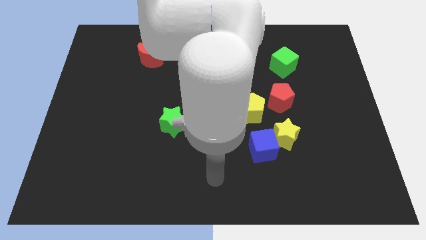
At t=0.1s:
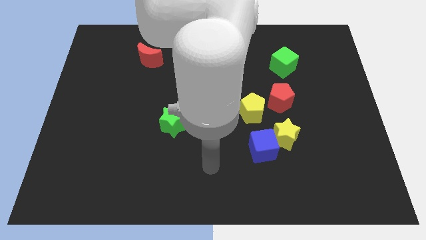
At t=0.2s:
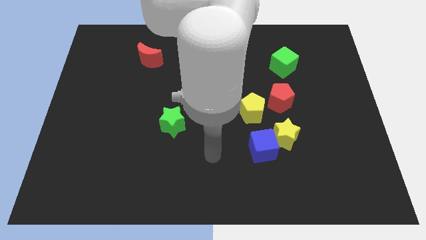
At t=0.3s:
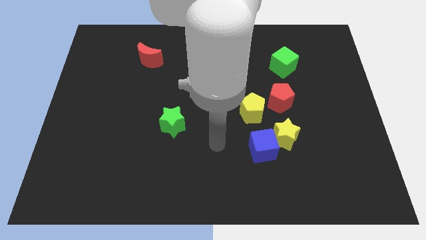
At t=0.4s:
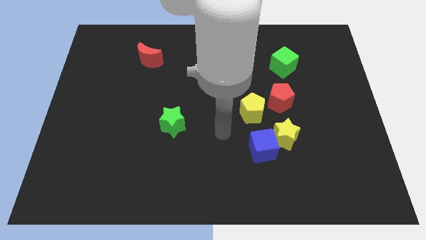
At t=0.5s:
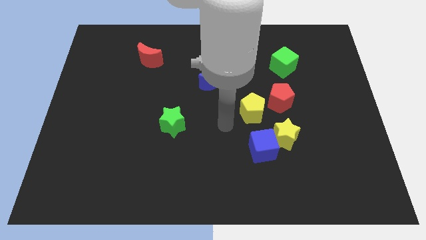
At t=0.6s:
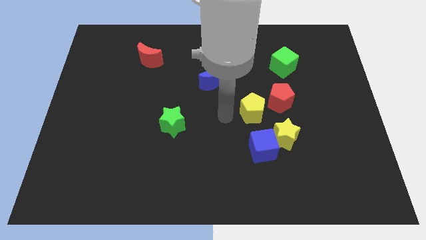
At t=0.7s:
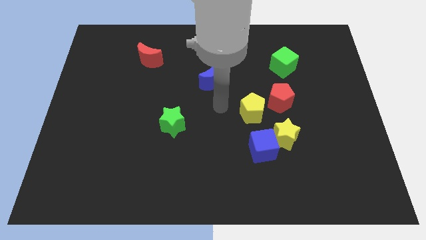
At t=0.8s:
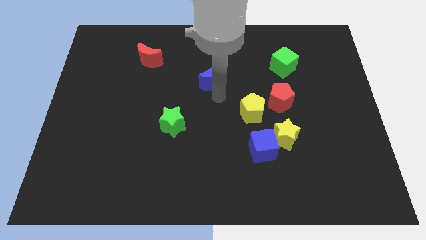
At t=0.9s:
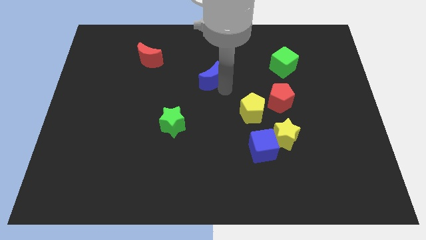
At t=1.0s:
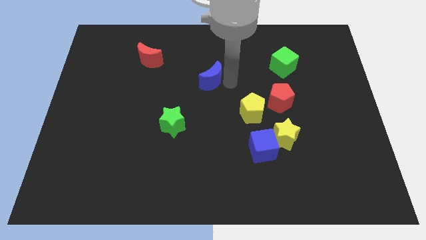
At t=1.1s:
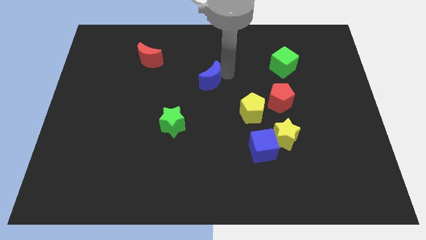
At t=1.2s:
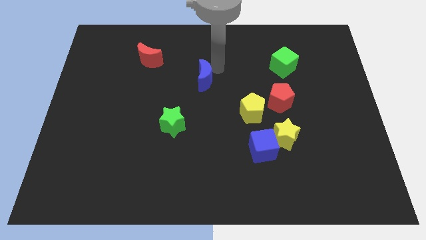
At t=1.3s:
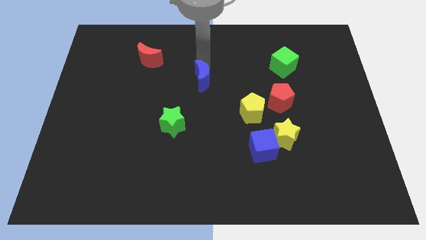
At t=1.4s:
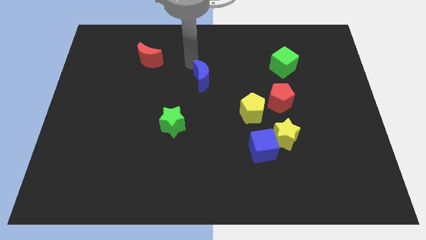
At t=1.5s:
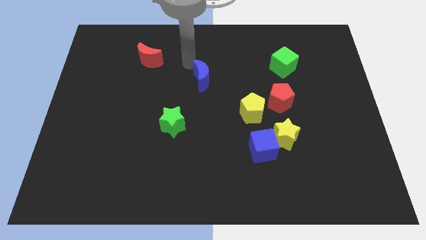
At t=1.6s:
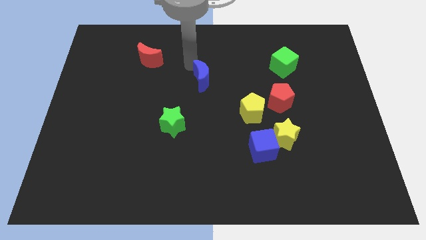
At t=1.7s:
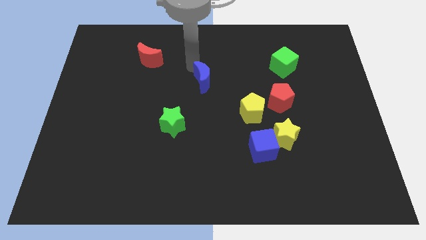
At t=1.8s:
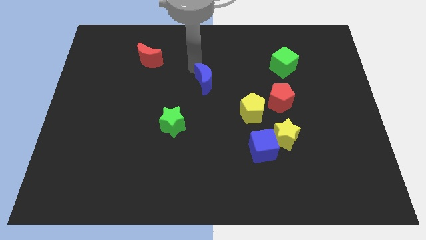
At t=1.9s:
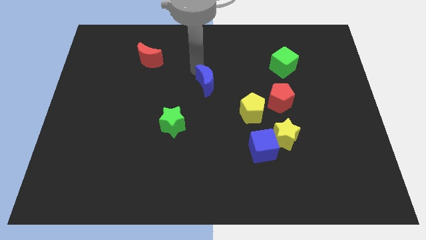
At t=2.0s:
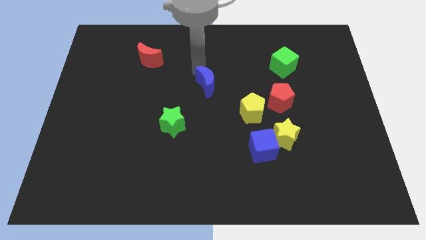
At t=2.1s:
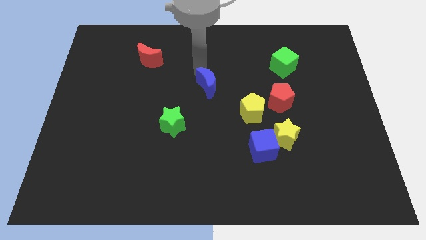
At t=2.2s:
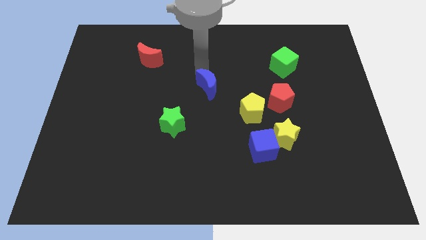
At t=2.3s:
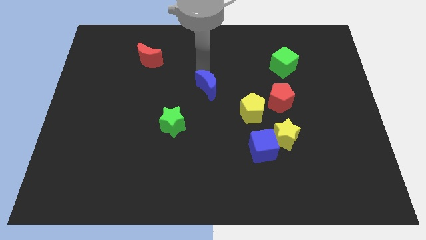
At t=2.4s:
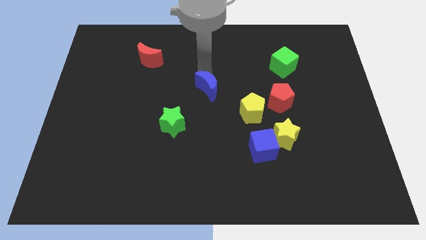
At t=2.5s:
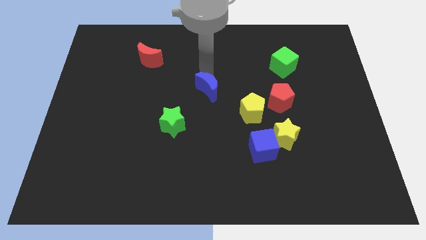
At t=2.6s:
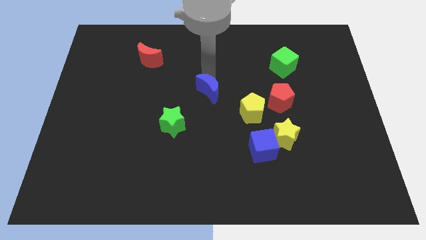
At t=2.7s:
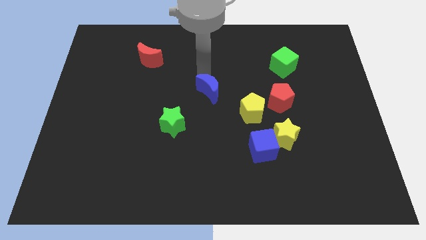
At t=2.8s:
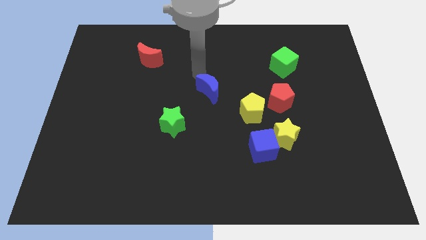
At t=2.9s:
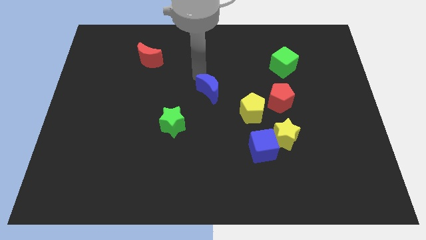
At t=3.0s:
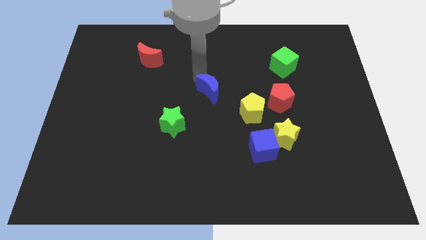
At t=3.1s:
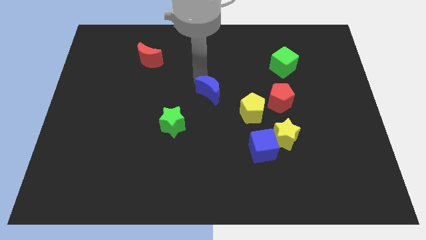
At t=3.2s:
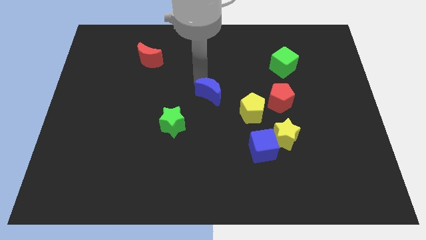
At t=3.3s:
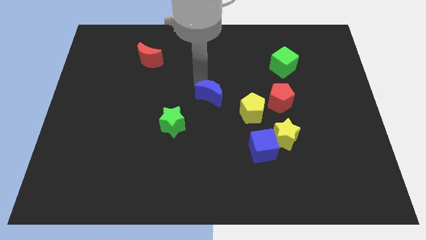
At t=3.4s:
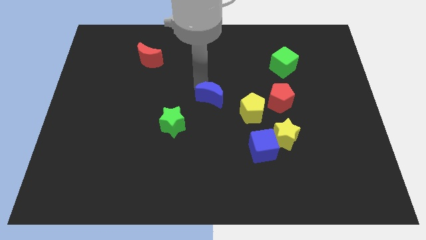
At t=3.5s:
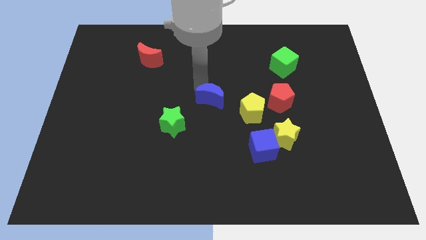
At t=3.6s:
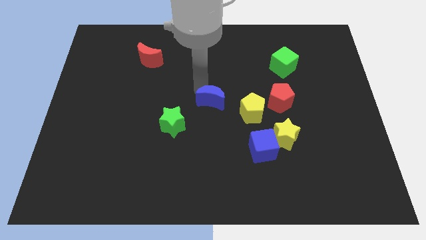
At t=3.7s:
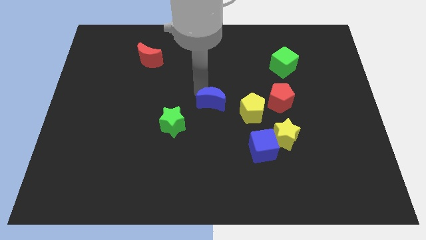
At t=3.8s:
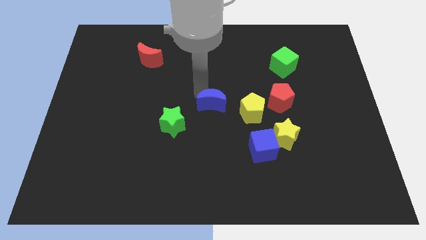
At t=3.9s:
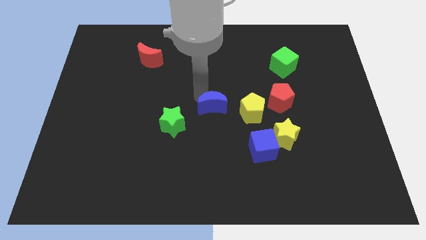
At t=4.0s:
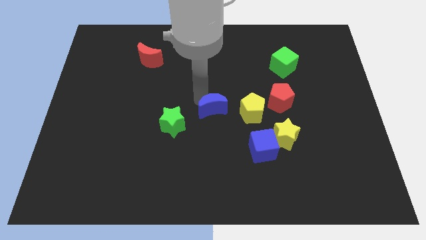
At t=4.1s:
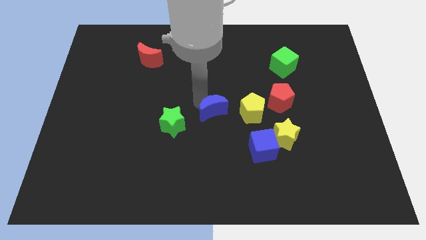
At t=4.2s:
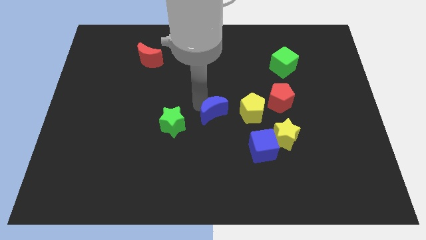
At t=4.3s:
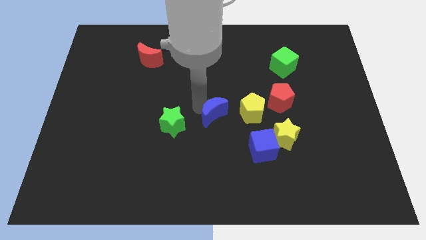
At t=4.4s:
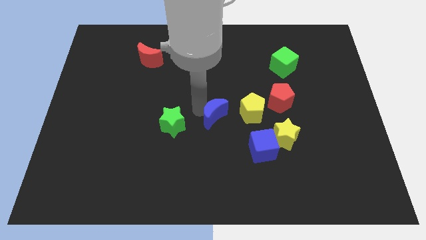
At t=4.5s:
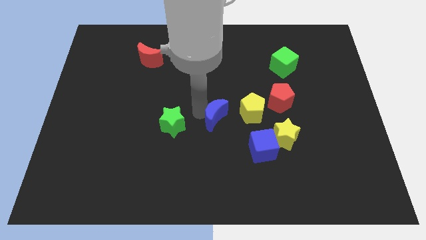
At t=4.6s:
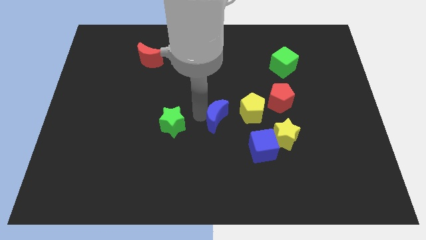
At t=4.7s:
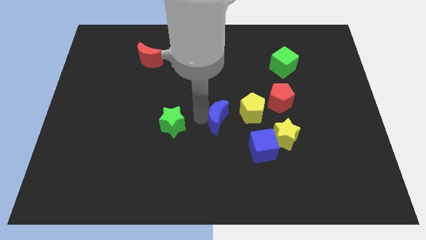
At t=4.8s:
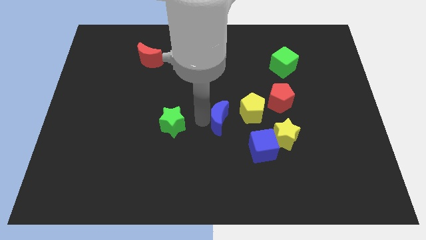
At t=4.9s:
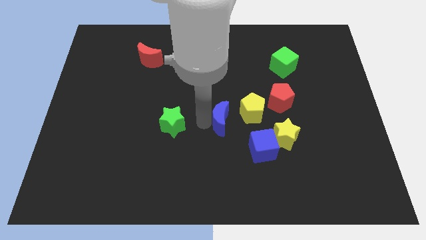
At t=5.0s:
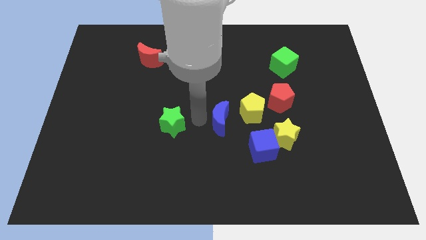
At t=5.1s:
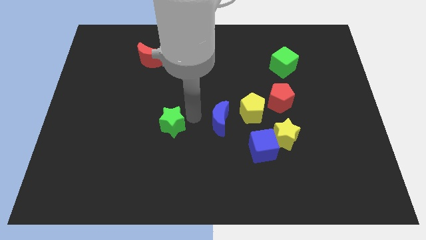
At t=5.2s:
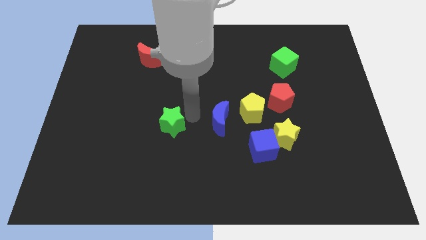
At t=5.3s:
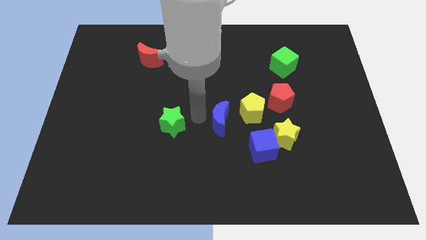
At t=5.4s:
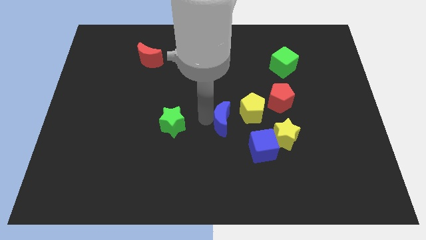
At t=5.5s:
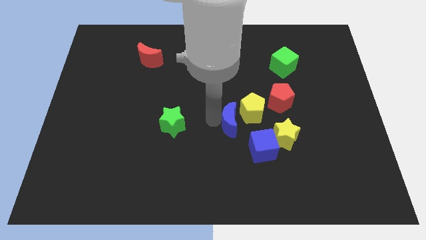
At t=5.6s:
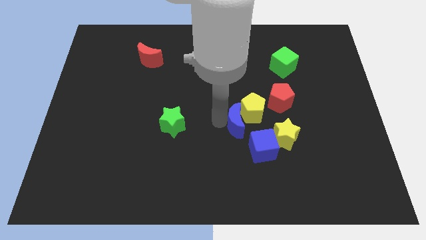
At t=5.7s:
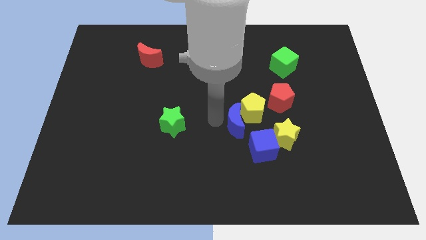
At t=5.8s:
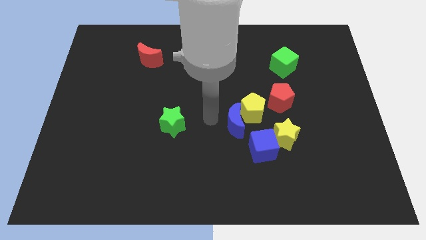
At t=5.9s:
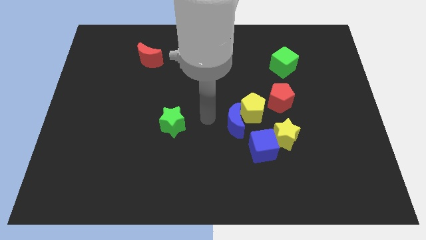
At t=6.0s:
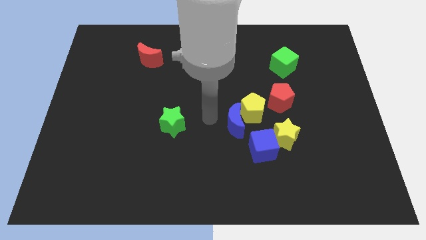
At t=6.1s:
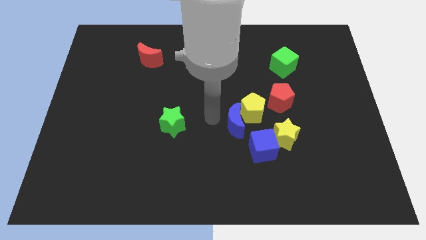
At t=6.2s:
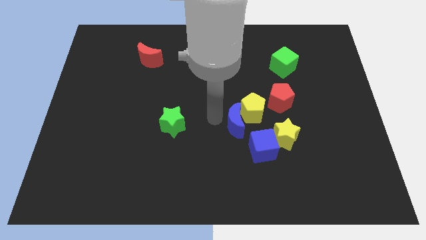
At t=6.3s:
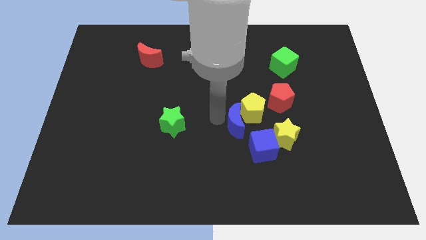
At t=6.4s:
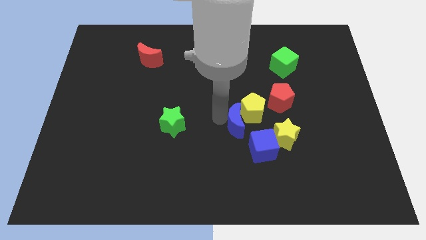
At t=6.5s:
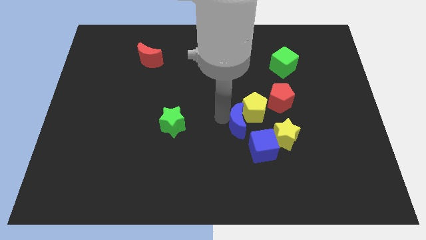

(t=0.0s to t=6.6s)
put the blue moon to the bottom left of the red pentagon
